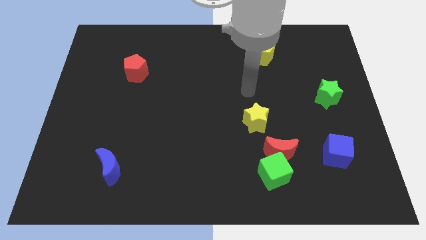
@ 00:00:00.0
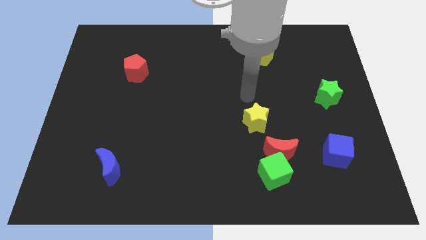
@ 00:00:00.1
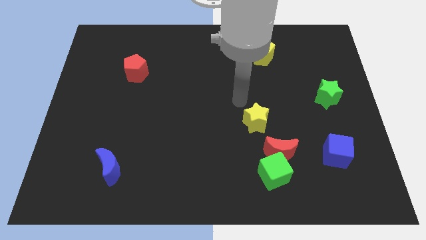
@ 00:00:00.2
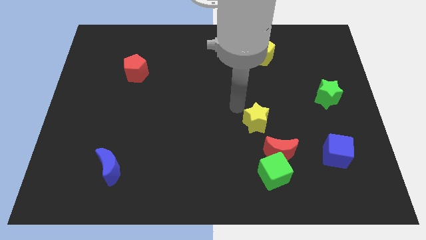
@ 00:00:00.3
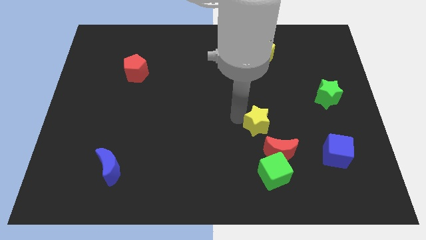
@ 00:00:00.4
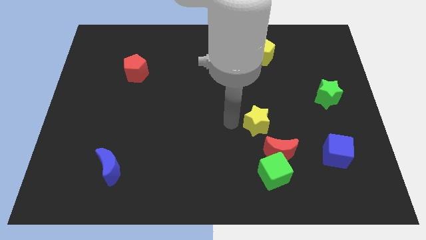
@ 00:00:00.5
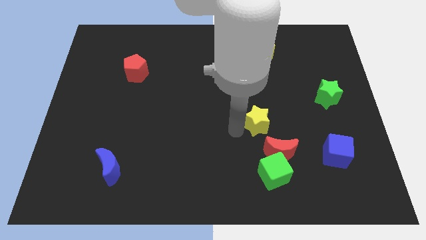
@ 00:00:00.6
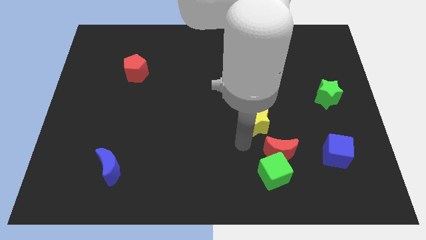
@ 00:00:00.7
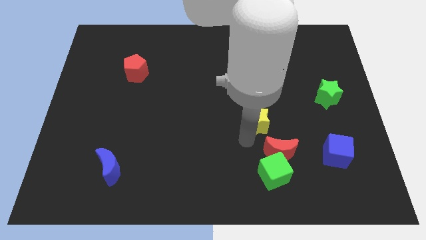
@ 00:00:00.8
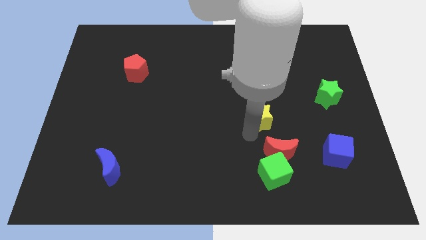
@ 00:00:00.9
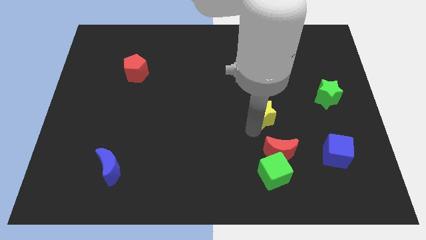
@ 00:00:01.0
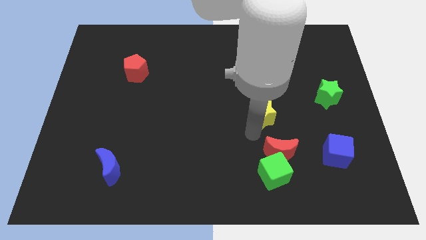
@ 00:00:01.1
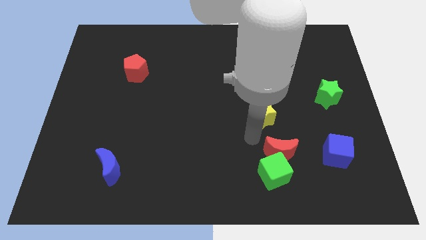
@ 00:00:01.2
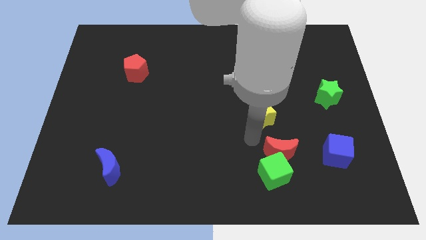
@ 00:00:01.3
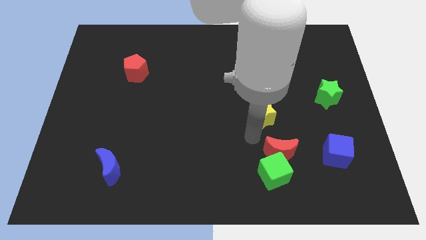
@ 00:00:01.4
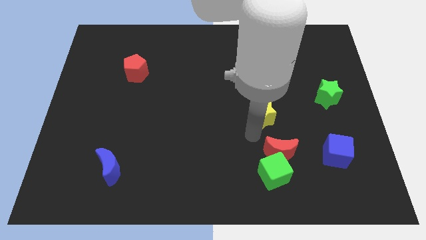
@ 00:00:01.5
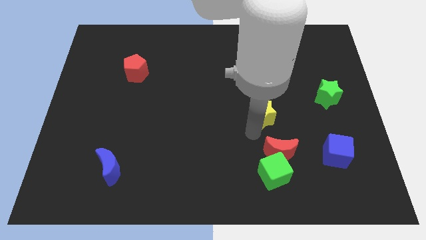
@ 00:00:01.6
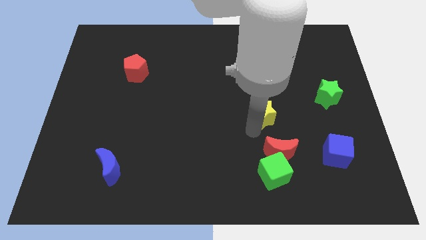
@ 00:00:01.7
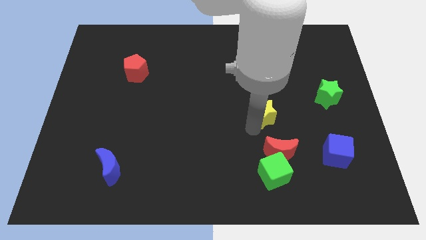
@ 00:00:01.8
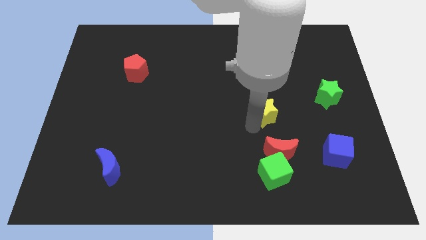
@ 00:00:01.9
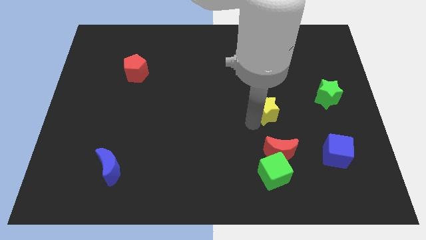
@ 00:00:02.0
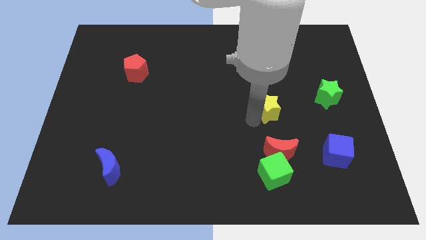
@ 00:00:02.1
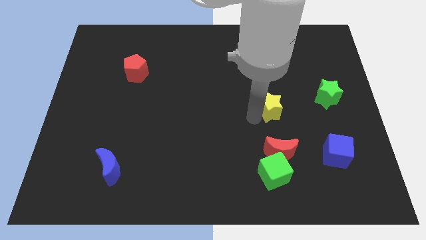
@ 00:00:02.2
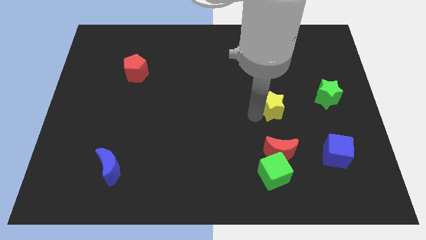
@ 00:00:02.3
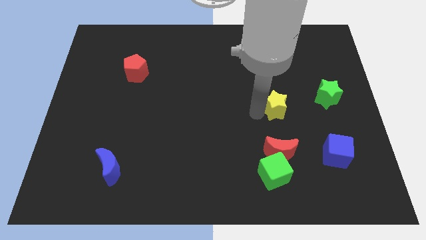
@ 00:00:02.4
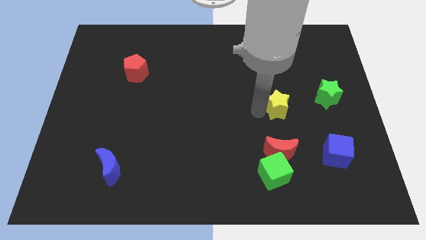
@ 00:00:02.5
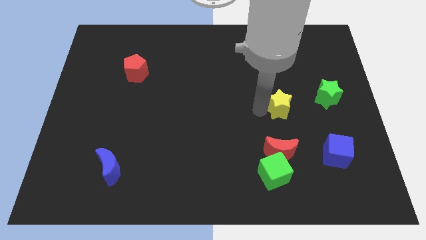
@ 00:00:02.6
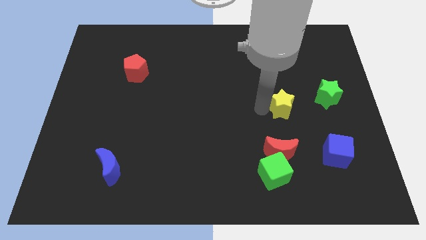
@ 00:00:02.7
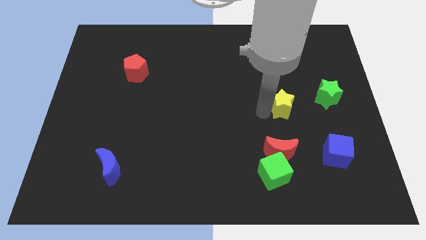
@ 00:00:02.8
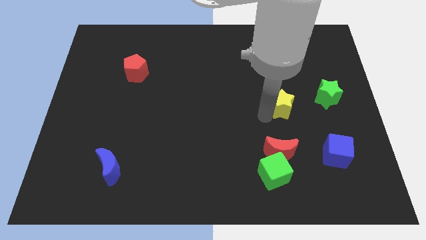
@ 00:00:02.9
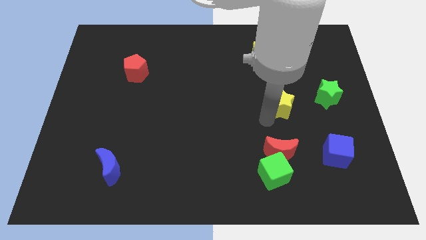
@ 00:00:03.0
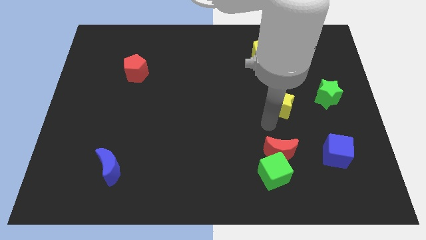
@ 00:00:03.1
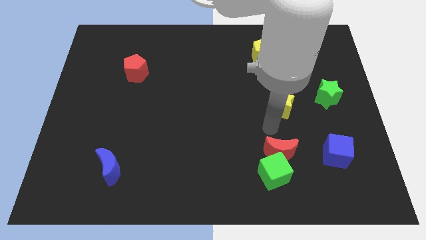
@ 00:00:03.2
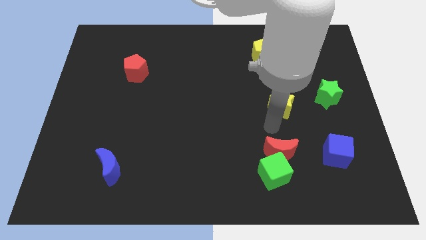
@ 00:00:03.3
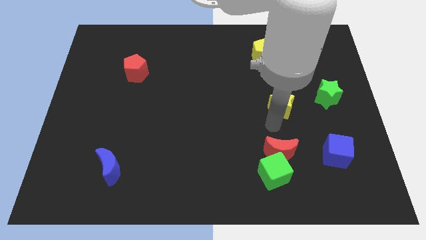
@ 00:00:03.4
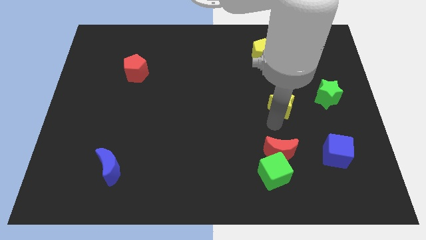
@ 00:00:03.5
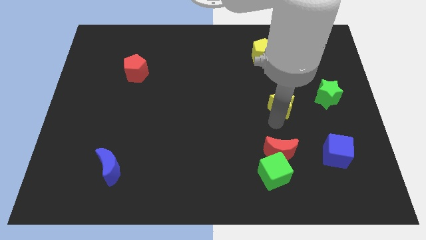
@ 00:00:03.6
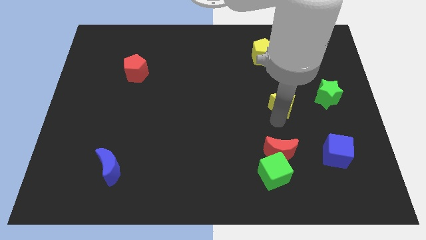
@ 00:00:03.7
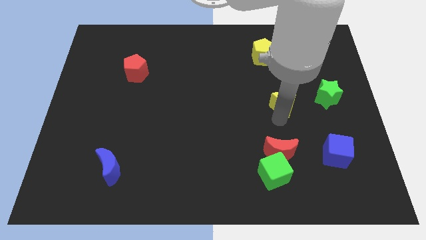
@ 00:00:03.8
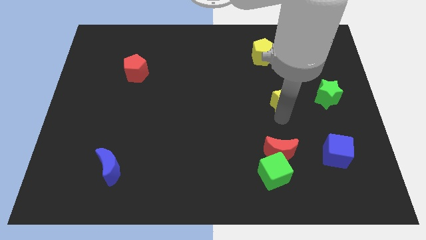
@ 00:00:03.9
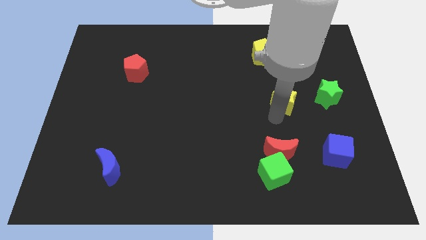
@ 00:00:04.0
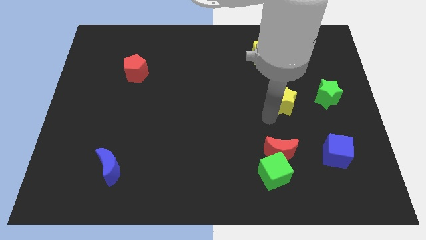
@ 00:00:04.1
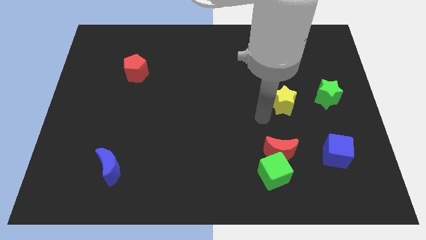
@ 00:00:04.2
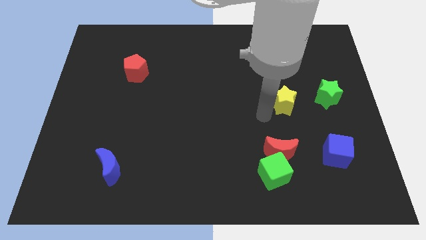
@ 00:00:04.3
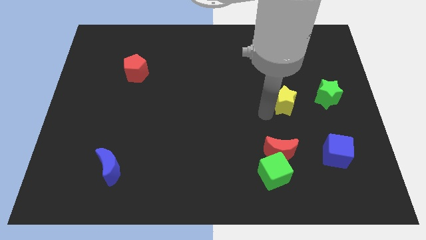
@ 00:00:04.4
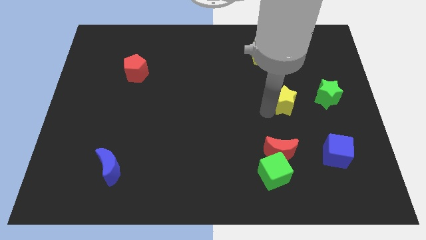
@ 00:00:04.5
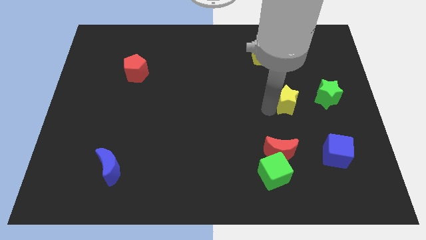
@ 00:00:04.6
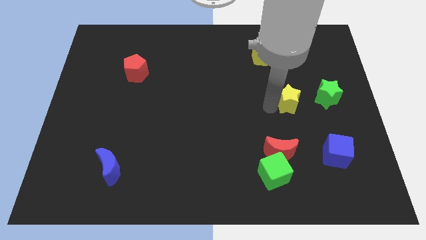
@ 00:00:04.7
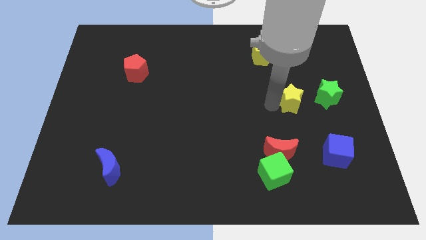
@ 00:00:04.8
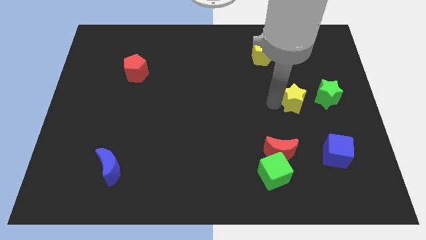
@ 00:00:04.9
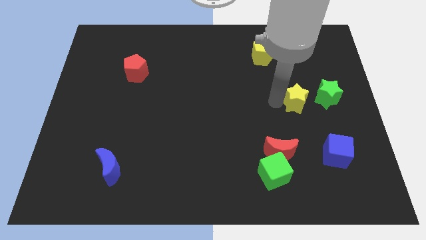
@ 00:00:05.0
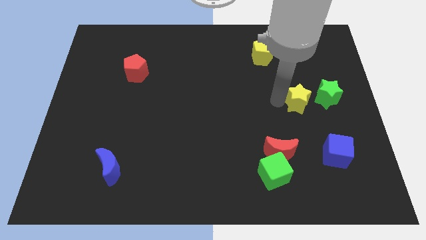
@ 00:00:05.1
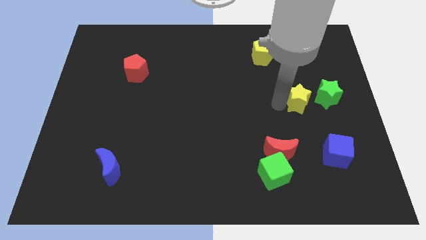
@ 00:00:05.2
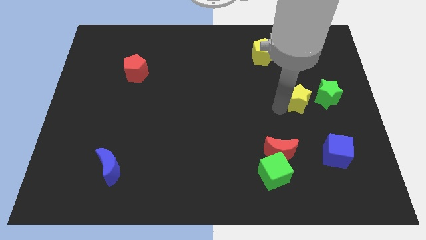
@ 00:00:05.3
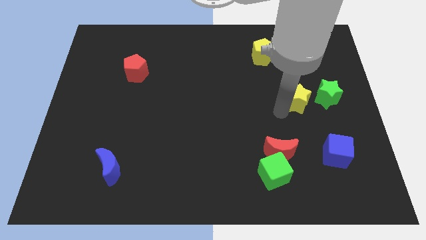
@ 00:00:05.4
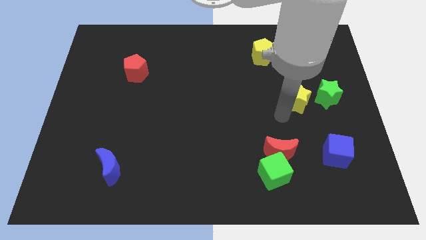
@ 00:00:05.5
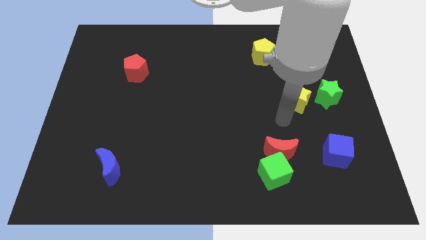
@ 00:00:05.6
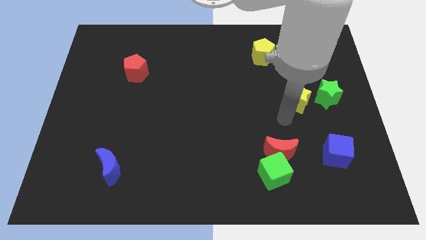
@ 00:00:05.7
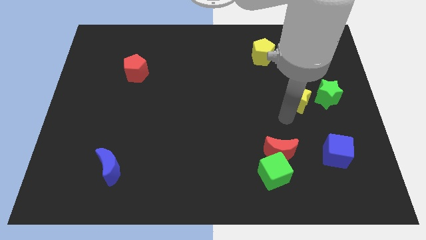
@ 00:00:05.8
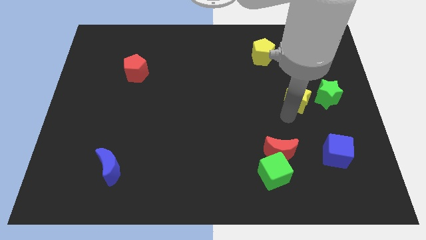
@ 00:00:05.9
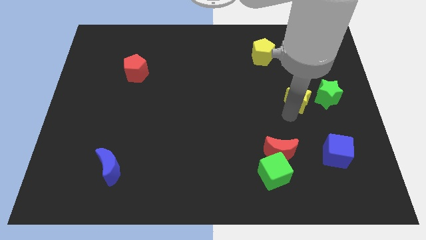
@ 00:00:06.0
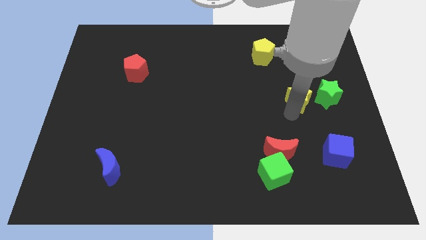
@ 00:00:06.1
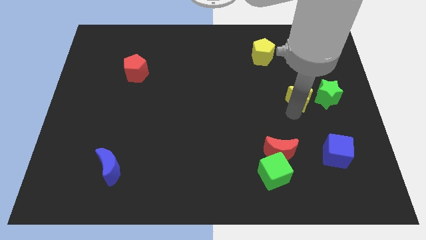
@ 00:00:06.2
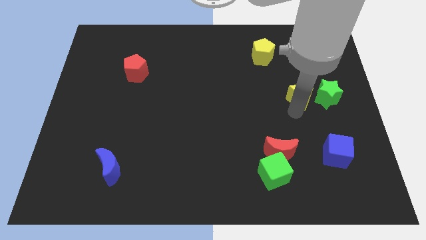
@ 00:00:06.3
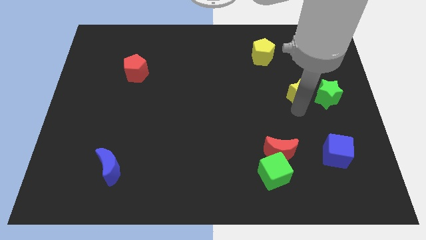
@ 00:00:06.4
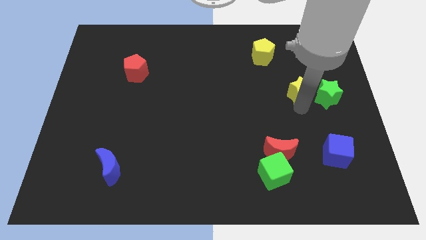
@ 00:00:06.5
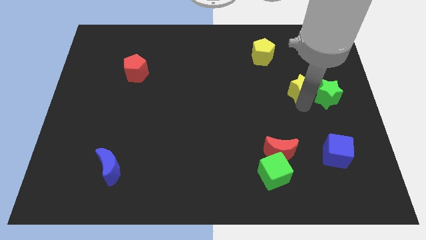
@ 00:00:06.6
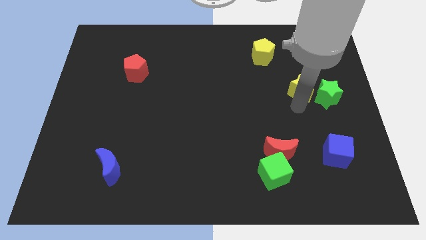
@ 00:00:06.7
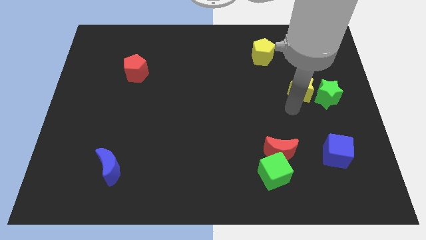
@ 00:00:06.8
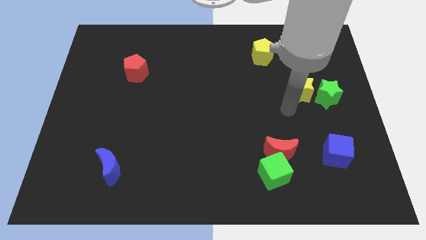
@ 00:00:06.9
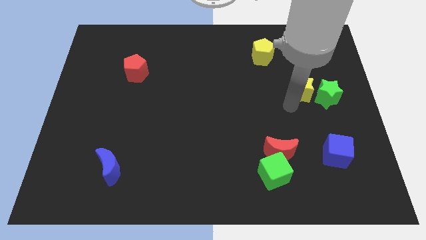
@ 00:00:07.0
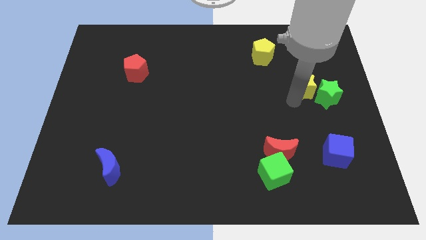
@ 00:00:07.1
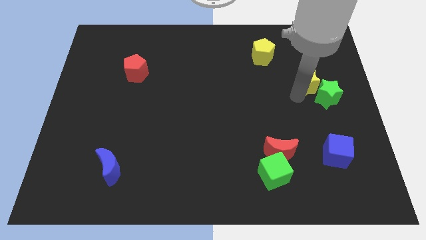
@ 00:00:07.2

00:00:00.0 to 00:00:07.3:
put the yellow star above the green star
